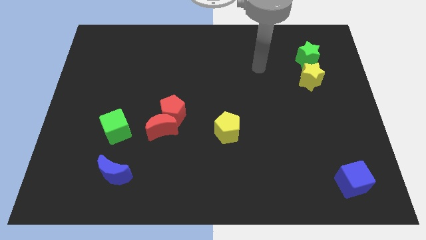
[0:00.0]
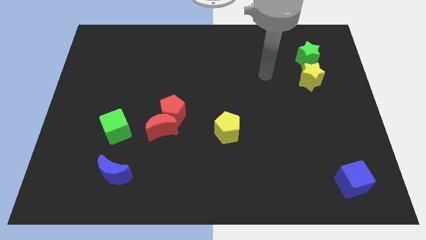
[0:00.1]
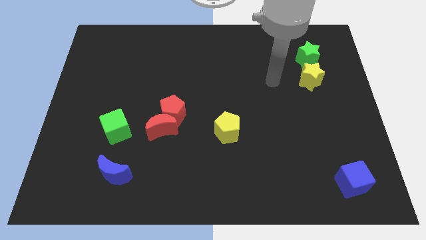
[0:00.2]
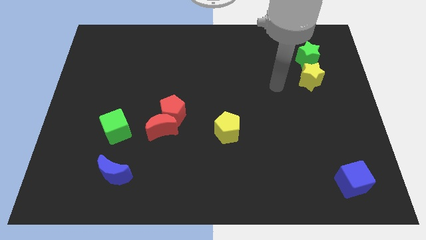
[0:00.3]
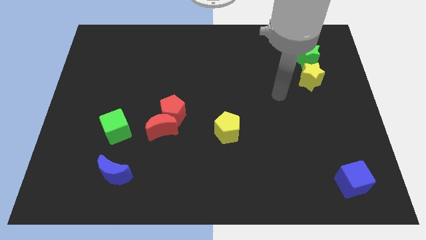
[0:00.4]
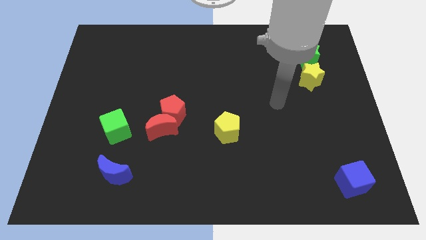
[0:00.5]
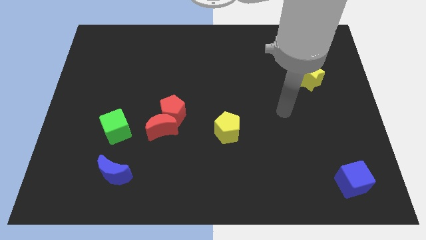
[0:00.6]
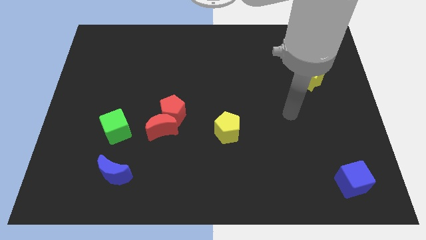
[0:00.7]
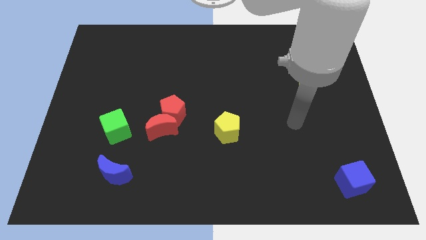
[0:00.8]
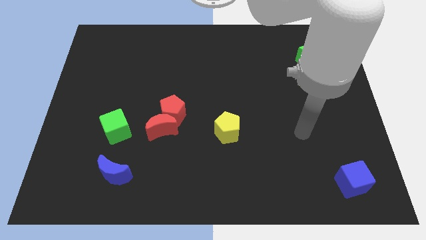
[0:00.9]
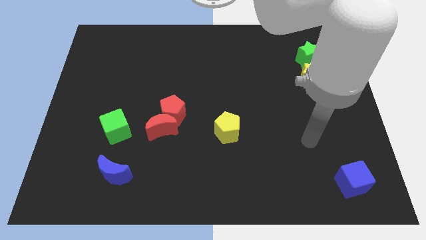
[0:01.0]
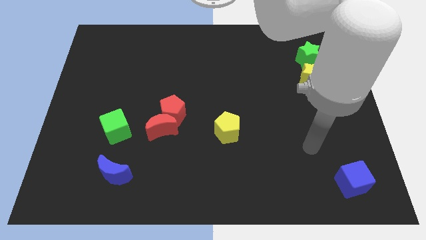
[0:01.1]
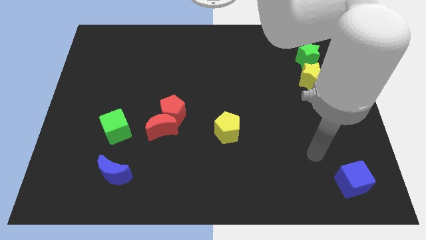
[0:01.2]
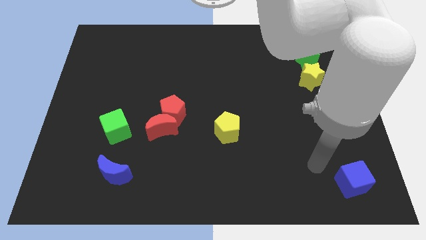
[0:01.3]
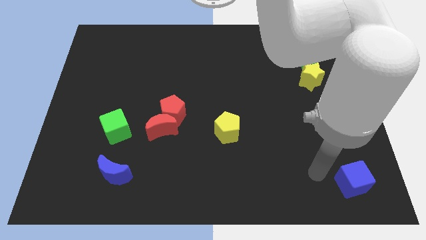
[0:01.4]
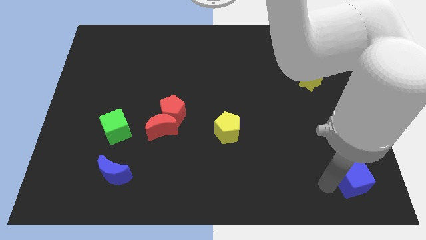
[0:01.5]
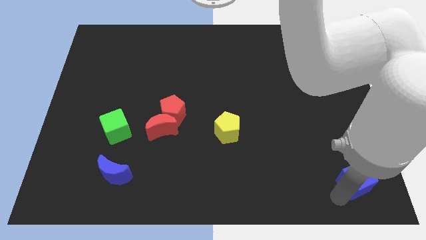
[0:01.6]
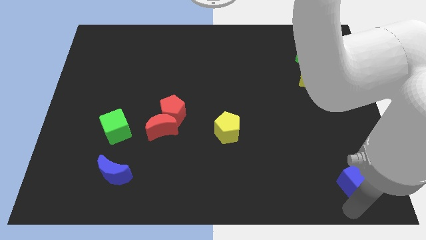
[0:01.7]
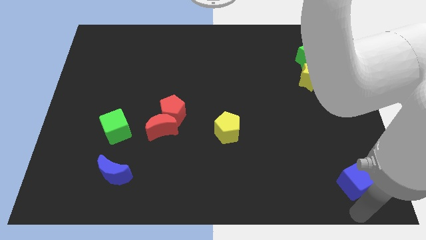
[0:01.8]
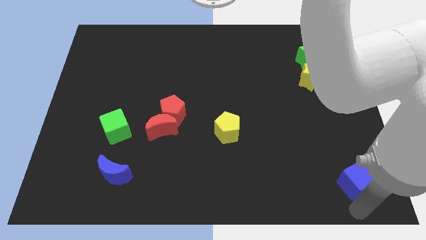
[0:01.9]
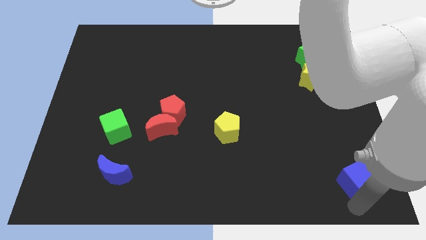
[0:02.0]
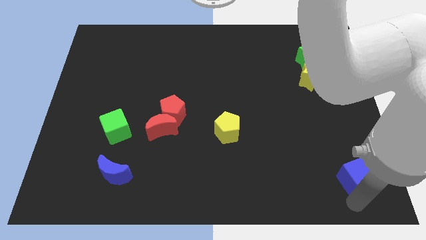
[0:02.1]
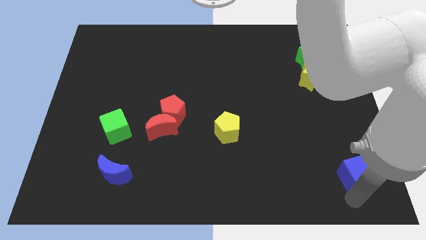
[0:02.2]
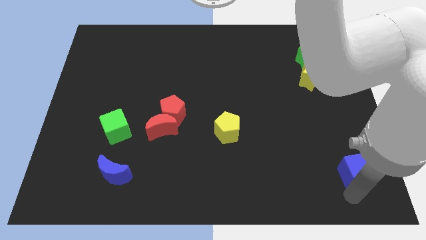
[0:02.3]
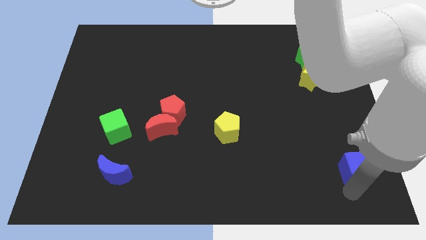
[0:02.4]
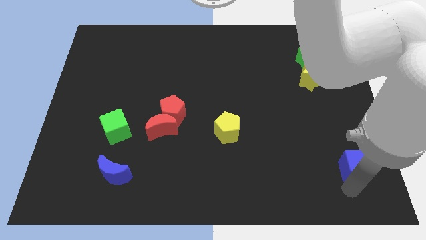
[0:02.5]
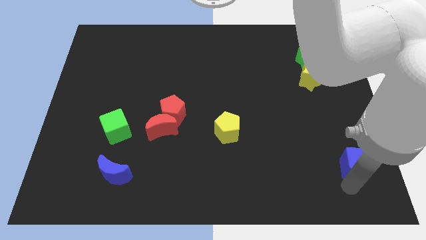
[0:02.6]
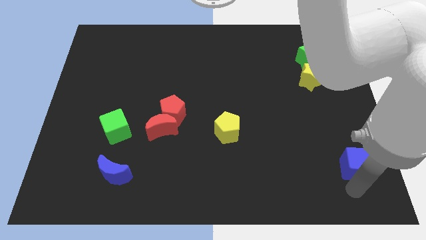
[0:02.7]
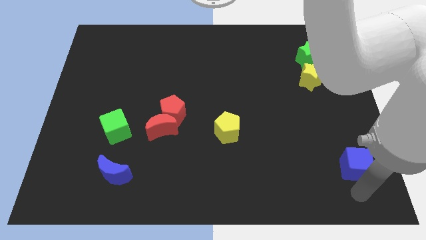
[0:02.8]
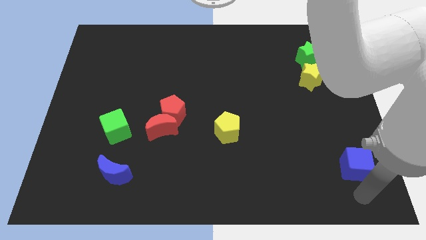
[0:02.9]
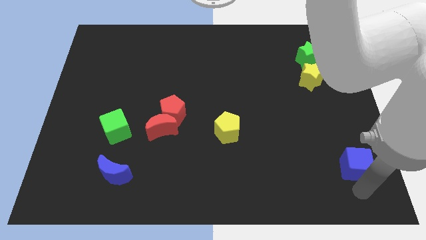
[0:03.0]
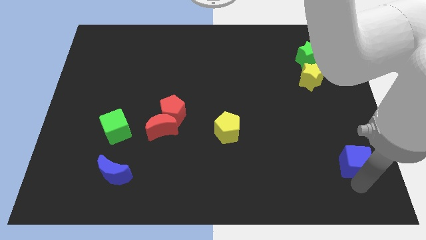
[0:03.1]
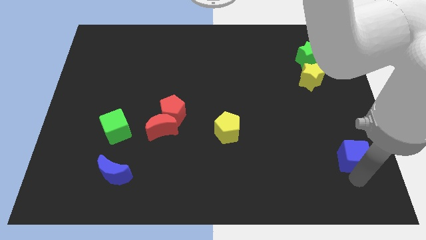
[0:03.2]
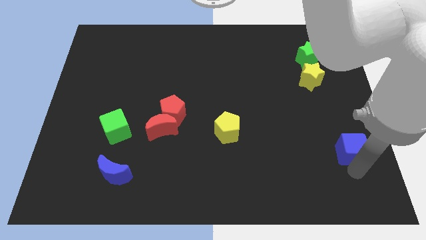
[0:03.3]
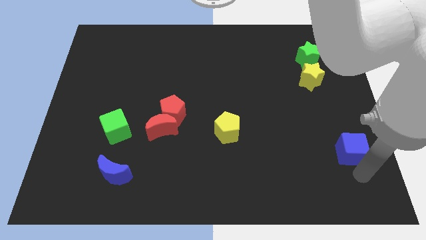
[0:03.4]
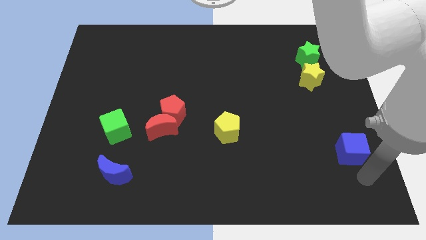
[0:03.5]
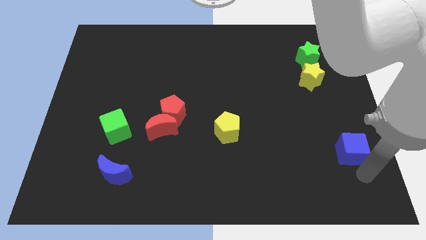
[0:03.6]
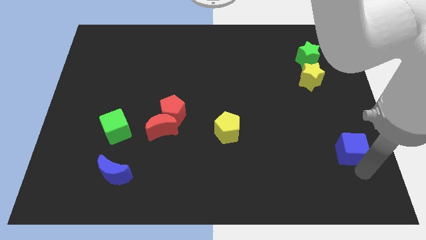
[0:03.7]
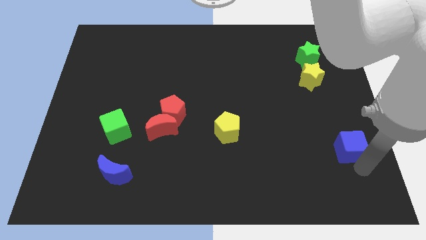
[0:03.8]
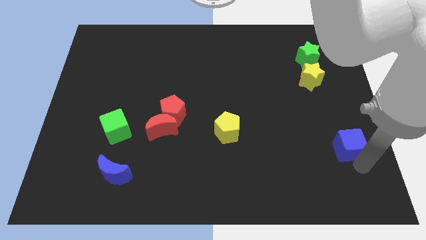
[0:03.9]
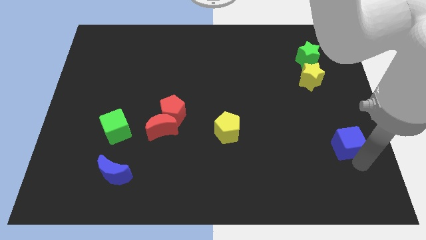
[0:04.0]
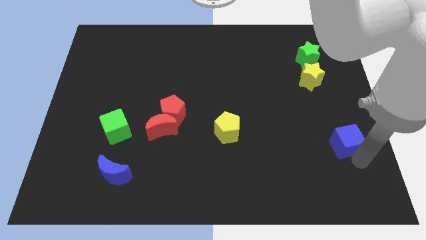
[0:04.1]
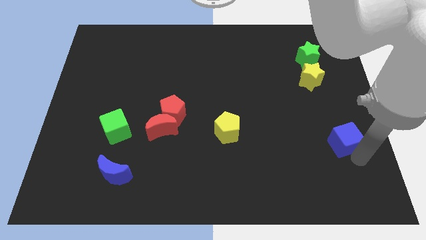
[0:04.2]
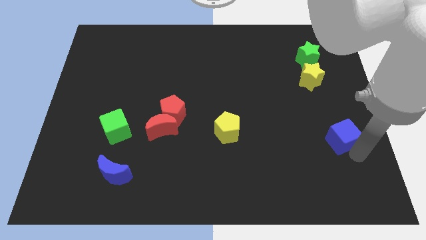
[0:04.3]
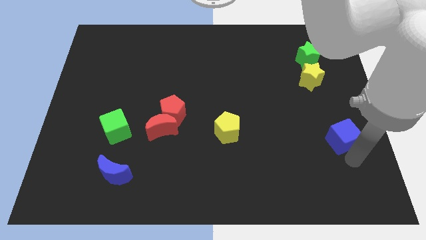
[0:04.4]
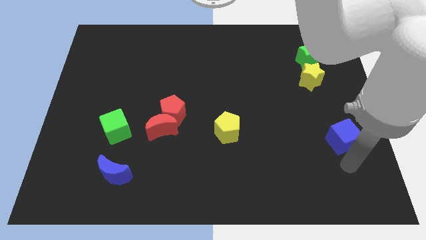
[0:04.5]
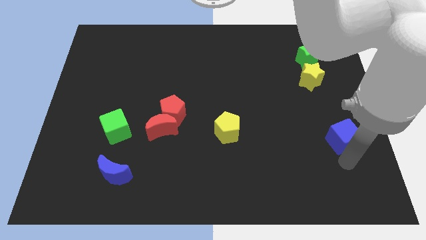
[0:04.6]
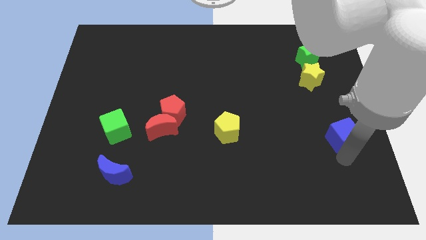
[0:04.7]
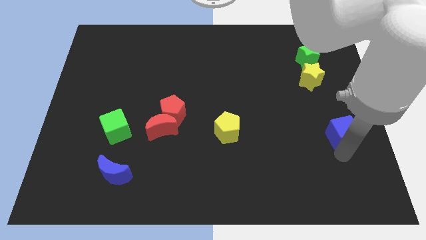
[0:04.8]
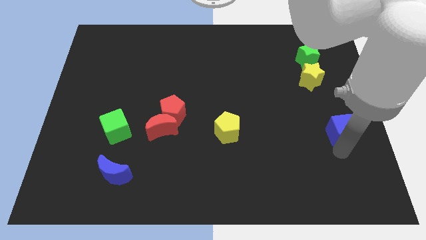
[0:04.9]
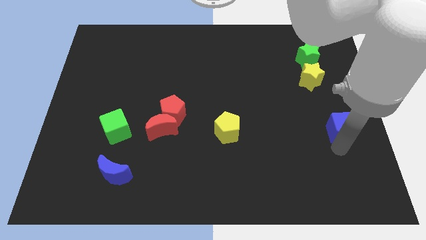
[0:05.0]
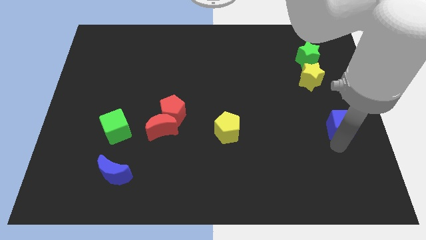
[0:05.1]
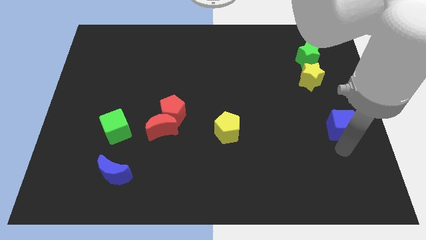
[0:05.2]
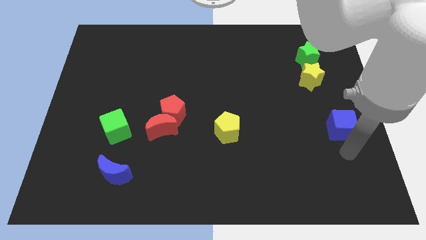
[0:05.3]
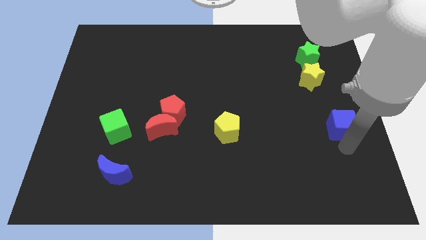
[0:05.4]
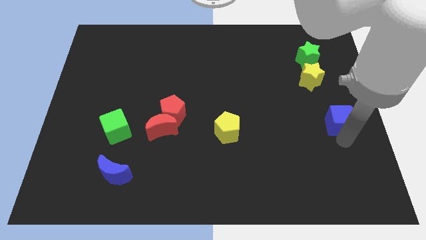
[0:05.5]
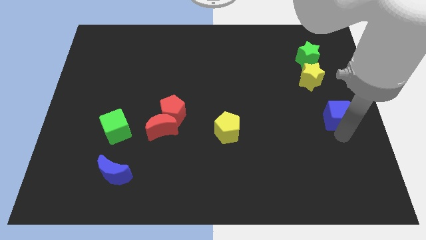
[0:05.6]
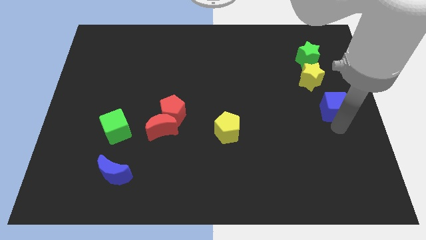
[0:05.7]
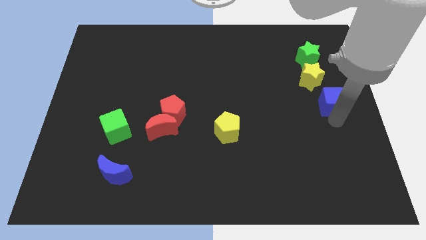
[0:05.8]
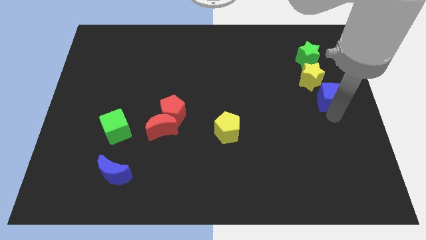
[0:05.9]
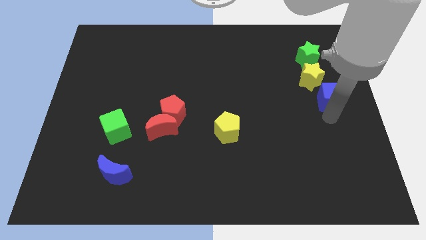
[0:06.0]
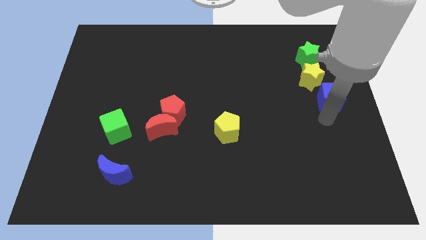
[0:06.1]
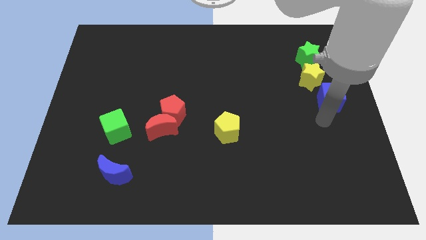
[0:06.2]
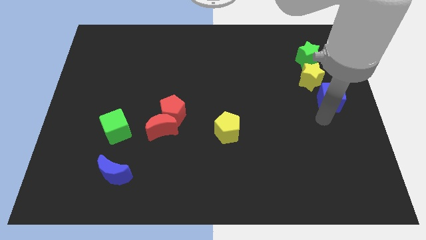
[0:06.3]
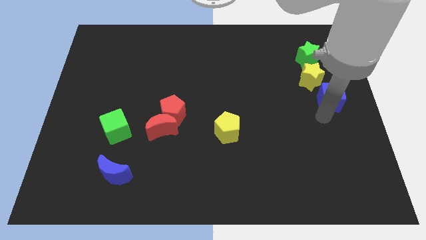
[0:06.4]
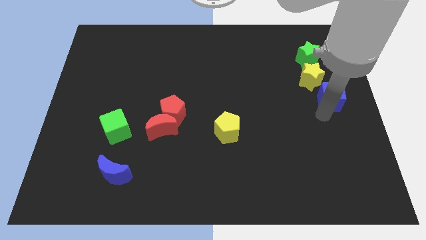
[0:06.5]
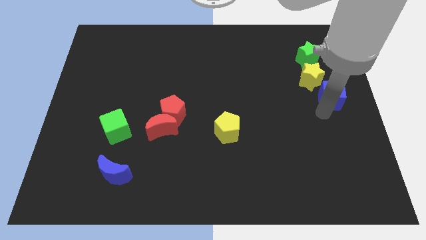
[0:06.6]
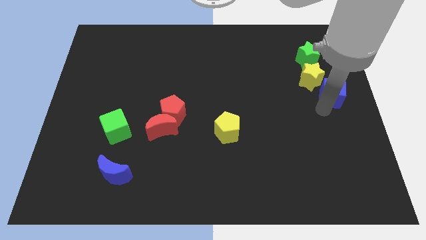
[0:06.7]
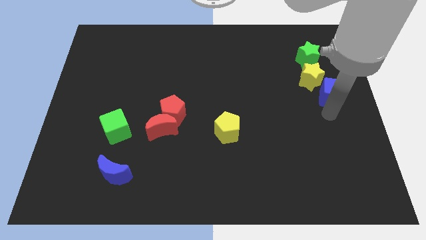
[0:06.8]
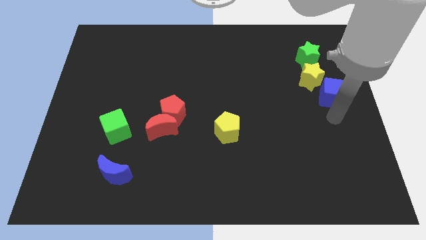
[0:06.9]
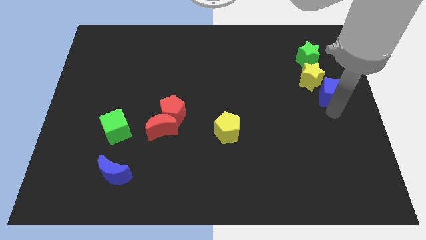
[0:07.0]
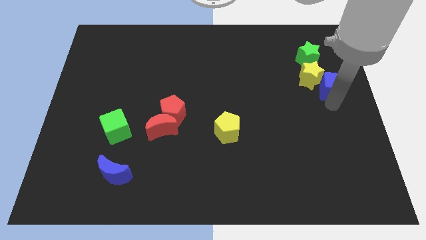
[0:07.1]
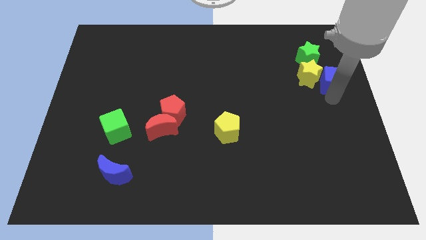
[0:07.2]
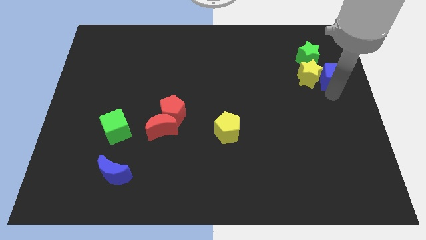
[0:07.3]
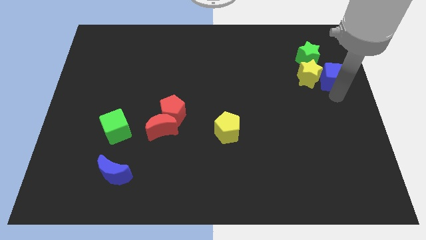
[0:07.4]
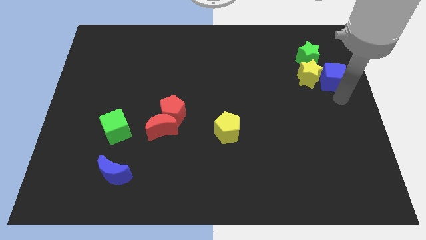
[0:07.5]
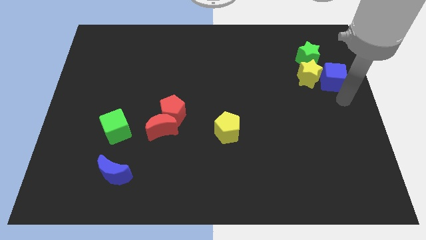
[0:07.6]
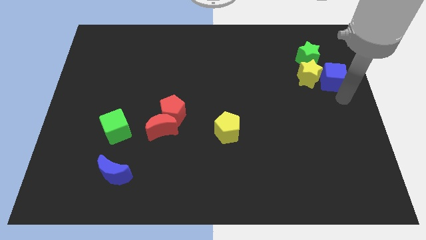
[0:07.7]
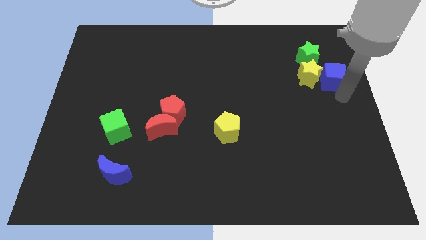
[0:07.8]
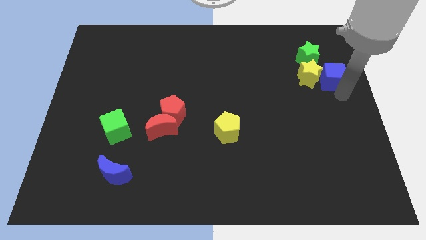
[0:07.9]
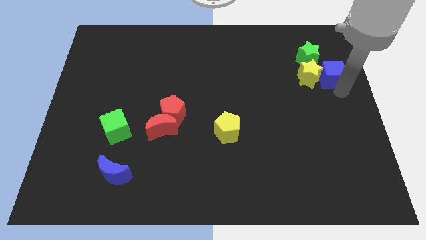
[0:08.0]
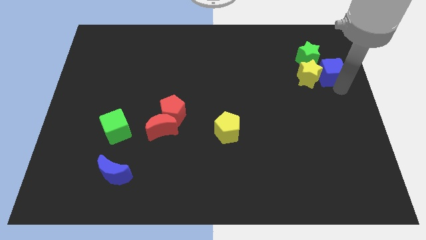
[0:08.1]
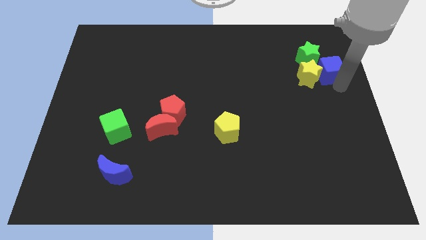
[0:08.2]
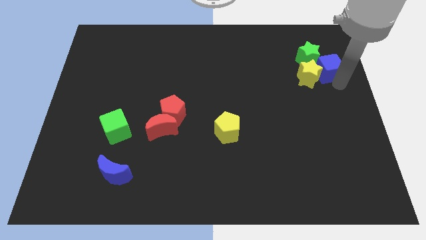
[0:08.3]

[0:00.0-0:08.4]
push the blue cube to the green star

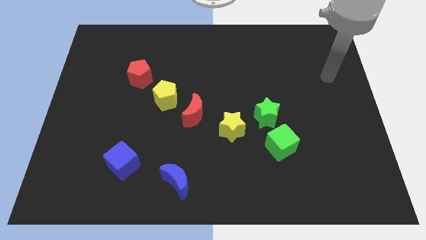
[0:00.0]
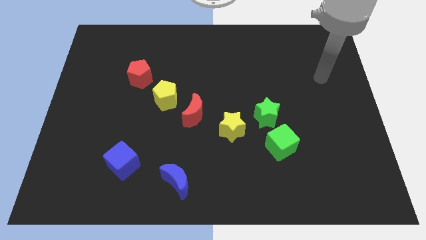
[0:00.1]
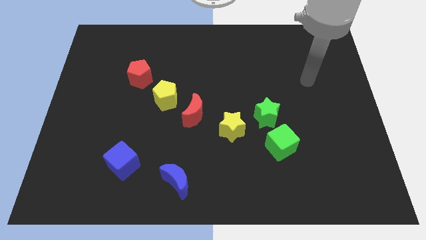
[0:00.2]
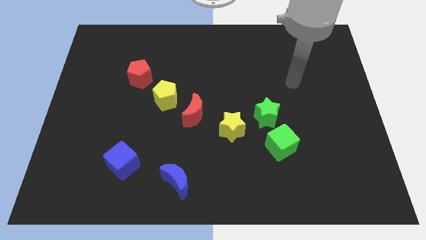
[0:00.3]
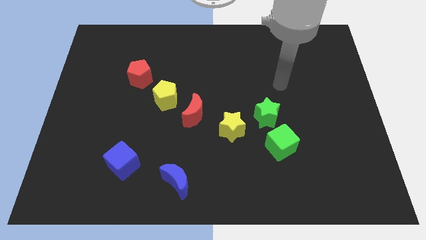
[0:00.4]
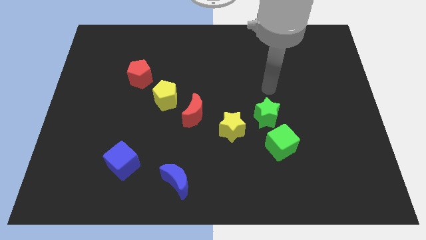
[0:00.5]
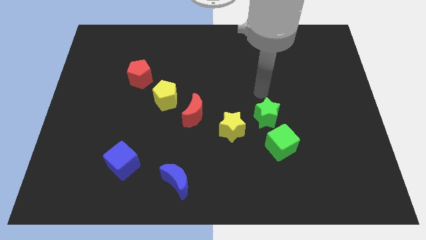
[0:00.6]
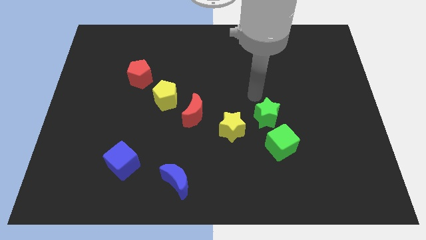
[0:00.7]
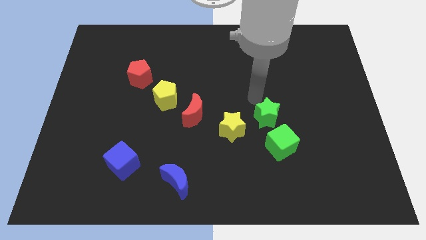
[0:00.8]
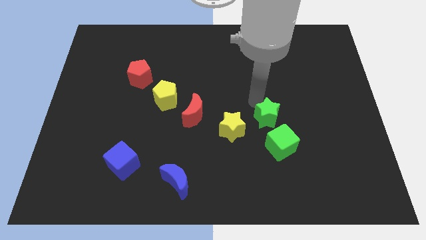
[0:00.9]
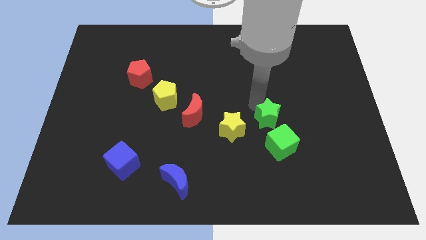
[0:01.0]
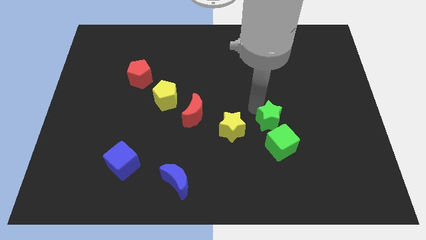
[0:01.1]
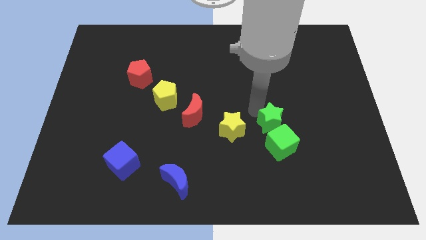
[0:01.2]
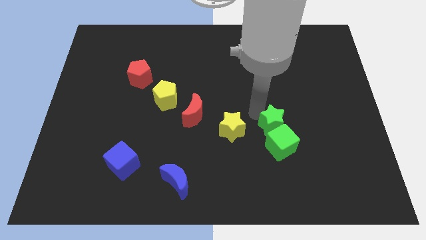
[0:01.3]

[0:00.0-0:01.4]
slide the green star close to the green cube
